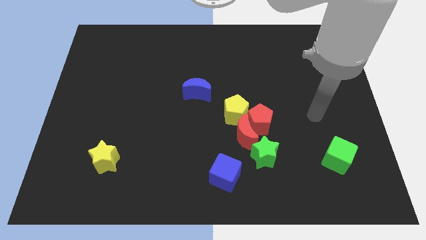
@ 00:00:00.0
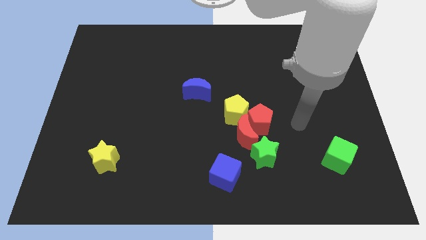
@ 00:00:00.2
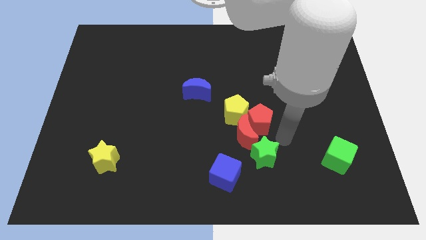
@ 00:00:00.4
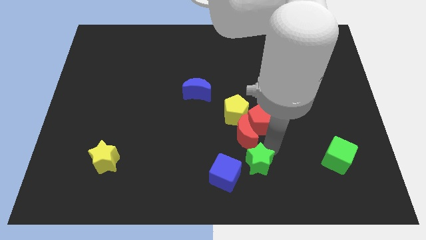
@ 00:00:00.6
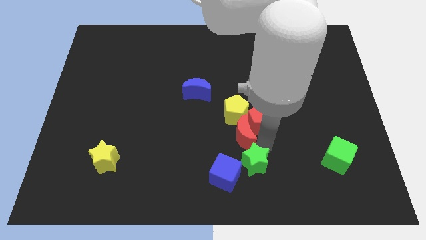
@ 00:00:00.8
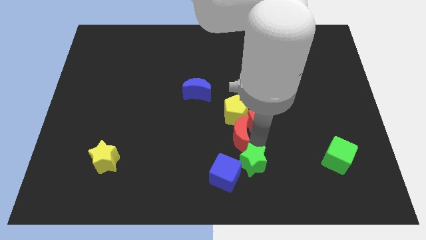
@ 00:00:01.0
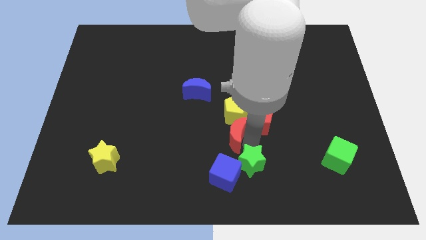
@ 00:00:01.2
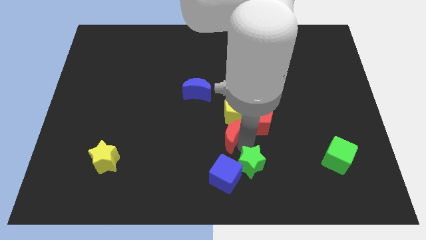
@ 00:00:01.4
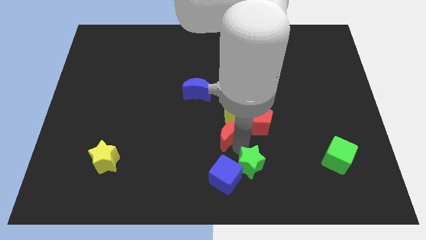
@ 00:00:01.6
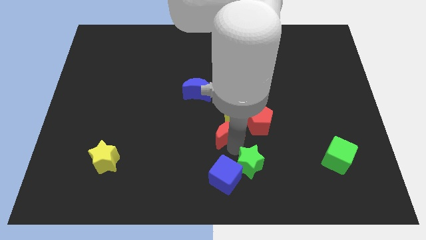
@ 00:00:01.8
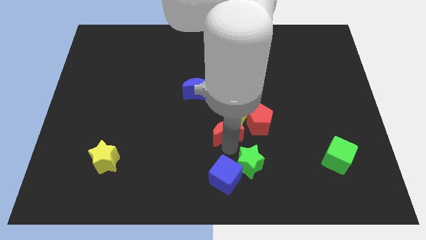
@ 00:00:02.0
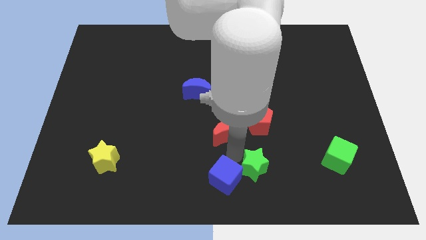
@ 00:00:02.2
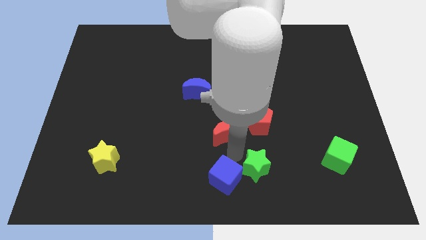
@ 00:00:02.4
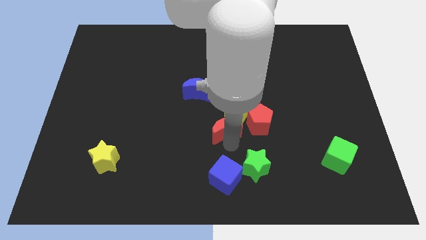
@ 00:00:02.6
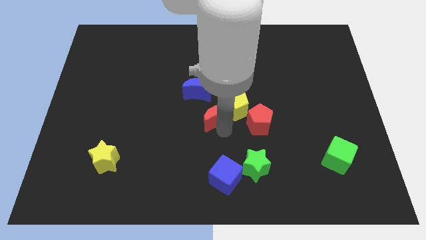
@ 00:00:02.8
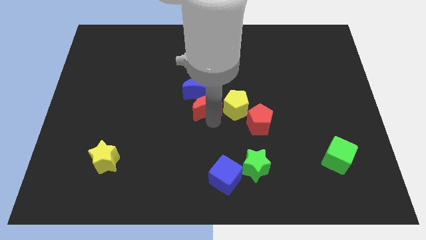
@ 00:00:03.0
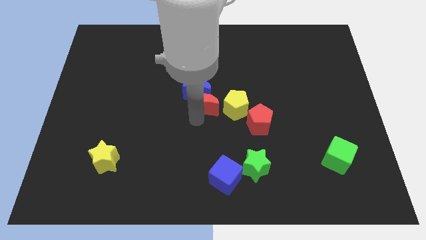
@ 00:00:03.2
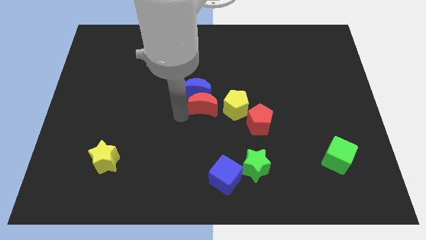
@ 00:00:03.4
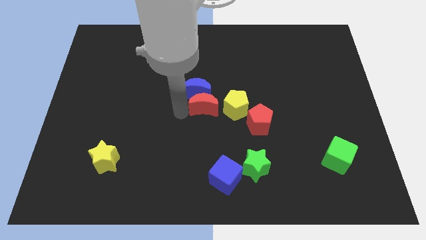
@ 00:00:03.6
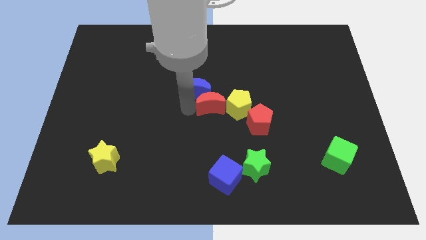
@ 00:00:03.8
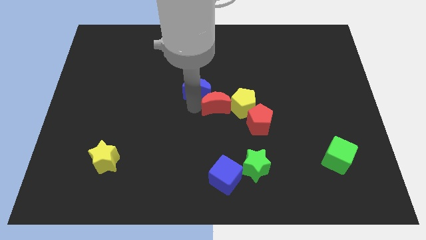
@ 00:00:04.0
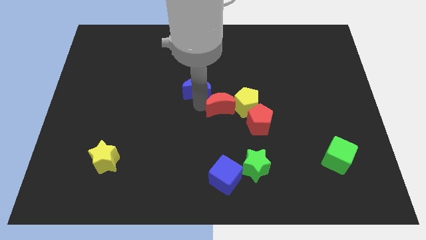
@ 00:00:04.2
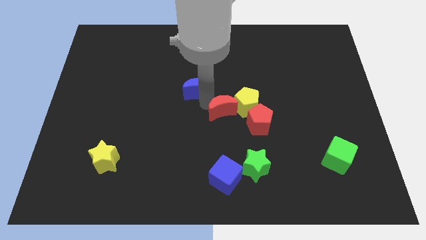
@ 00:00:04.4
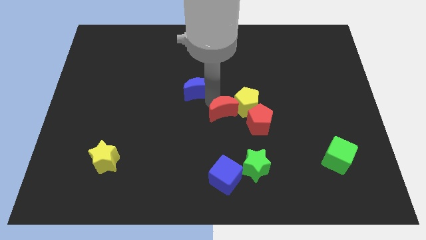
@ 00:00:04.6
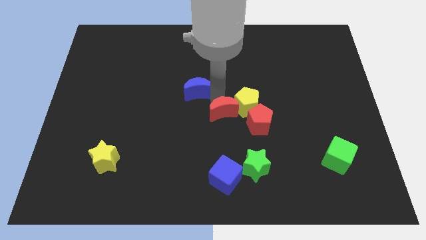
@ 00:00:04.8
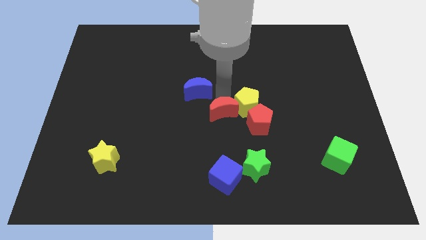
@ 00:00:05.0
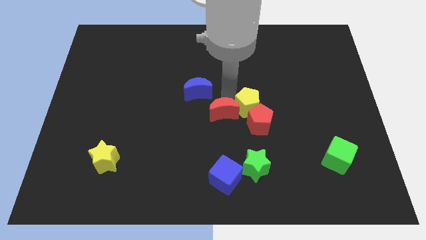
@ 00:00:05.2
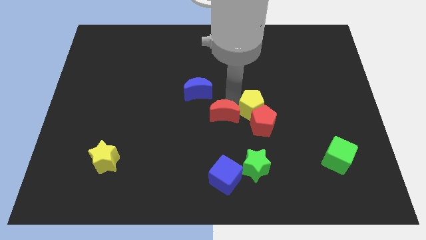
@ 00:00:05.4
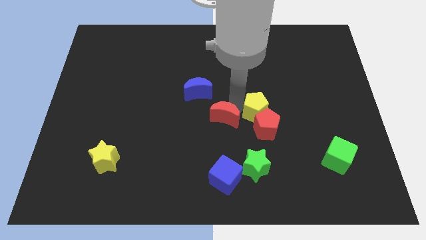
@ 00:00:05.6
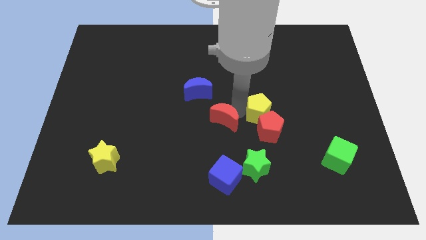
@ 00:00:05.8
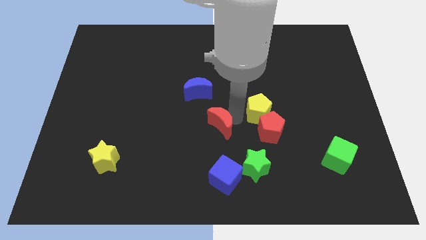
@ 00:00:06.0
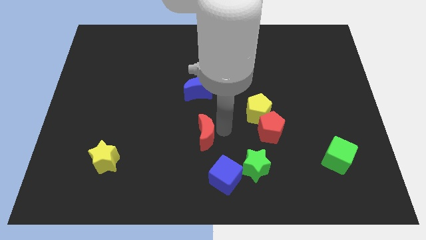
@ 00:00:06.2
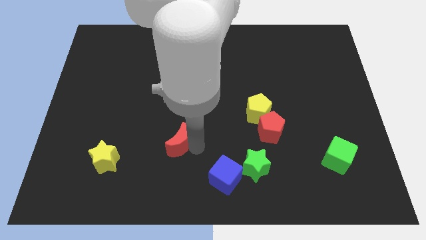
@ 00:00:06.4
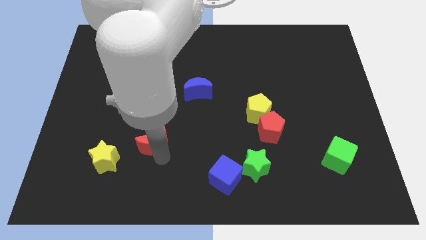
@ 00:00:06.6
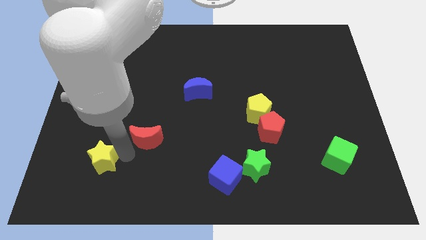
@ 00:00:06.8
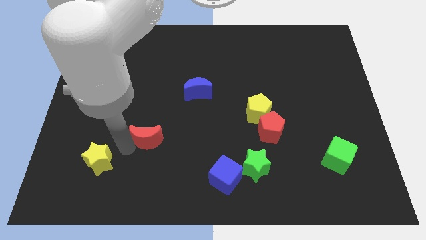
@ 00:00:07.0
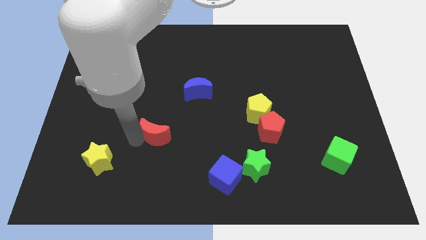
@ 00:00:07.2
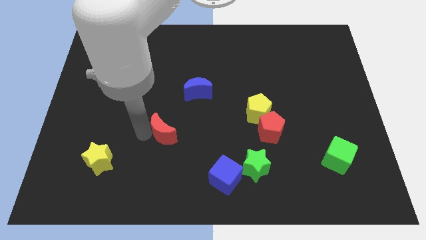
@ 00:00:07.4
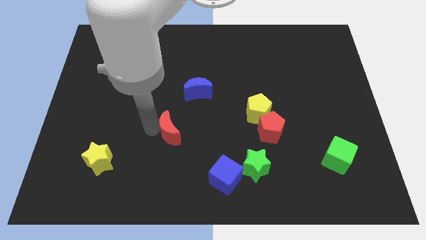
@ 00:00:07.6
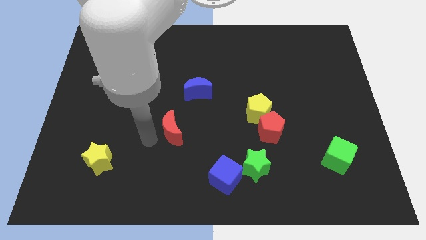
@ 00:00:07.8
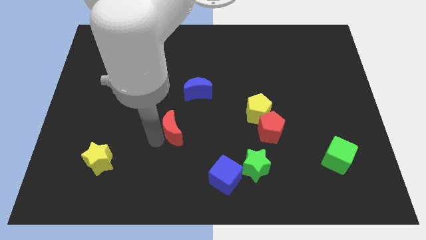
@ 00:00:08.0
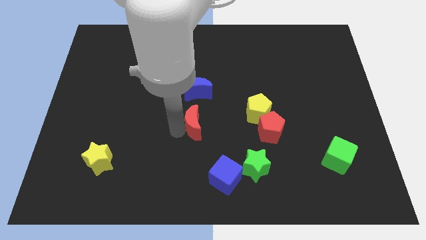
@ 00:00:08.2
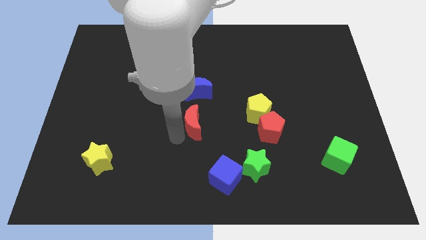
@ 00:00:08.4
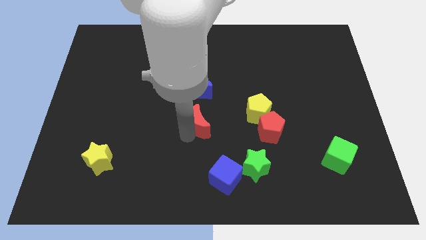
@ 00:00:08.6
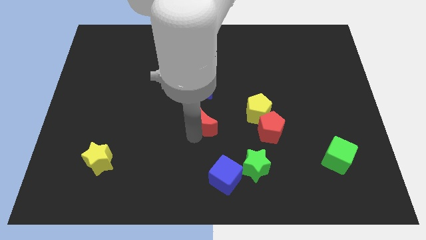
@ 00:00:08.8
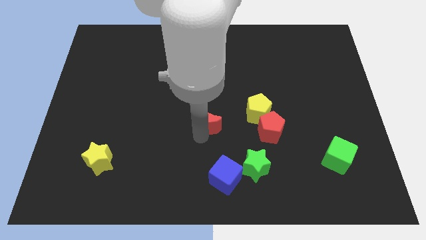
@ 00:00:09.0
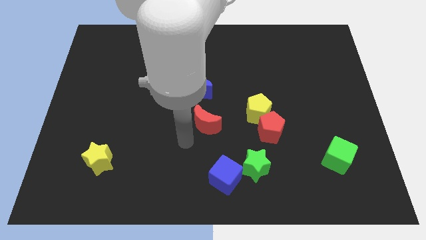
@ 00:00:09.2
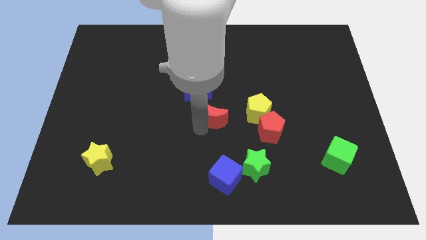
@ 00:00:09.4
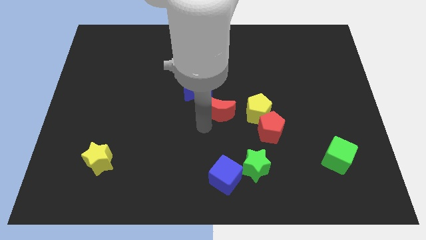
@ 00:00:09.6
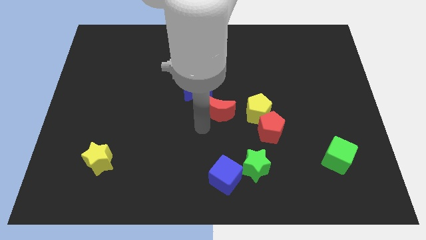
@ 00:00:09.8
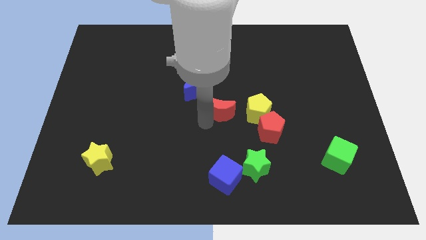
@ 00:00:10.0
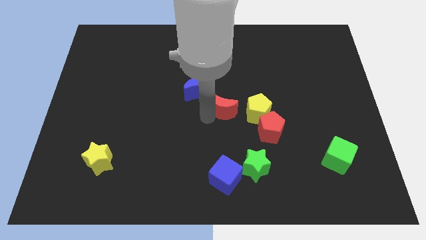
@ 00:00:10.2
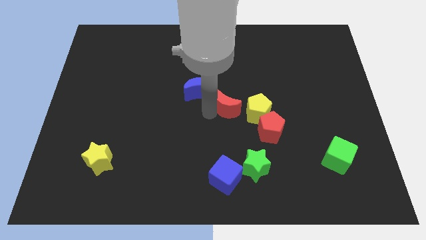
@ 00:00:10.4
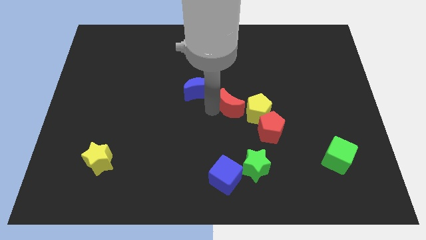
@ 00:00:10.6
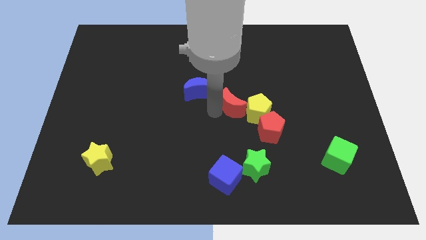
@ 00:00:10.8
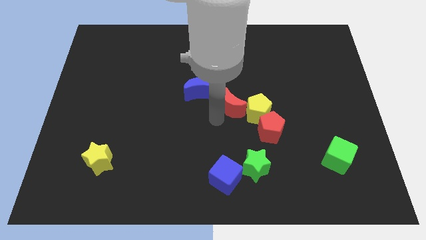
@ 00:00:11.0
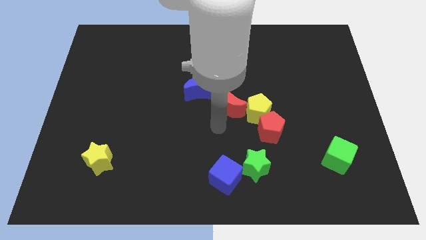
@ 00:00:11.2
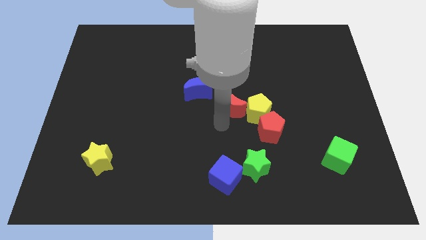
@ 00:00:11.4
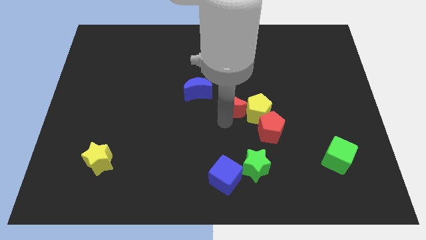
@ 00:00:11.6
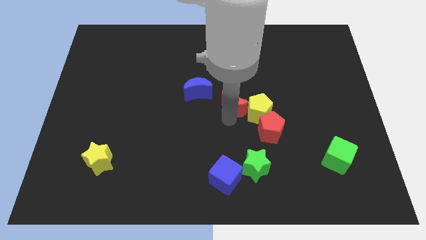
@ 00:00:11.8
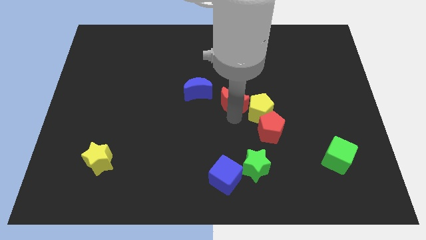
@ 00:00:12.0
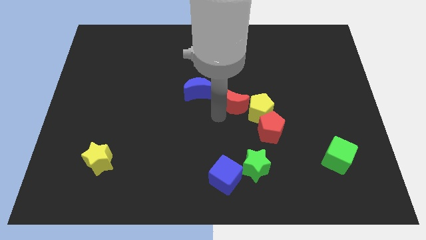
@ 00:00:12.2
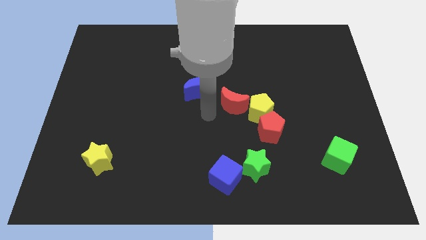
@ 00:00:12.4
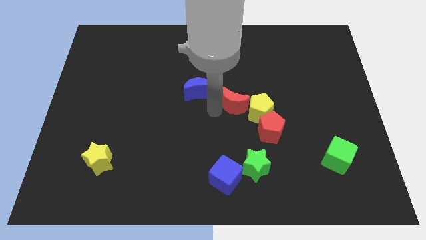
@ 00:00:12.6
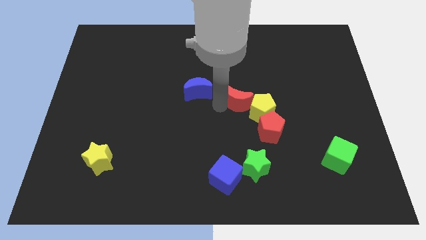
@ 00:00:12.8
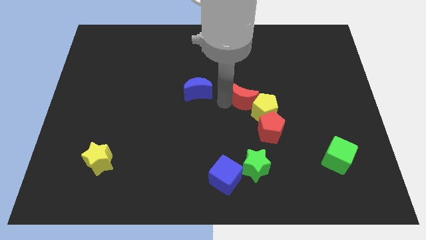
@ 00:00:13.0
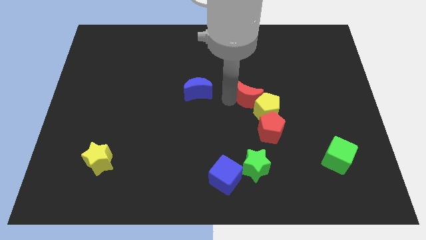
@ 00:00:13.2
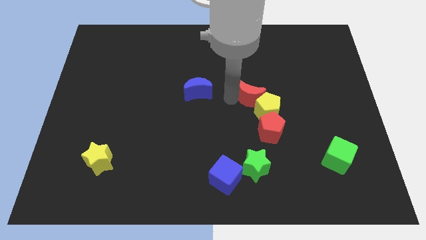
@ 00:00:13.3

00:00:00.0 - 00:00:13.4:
slightly push the red moon diagonally up and right

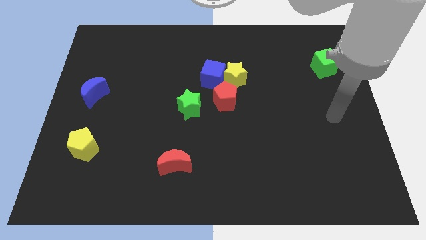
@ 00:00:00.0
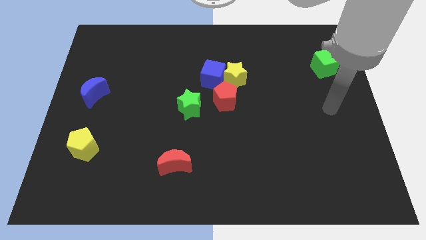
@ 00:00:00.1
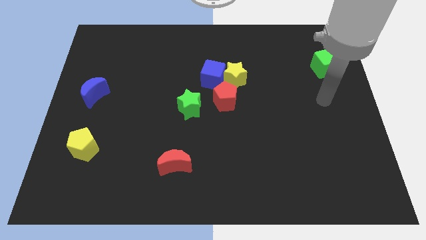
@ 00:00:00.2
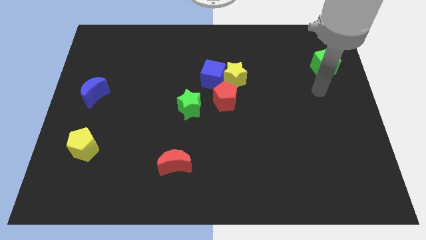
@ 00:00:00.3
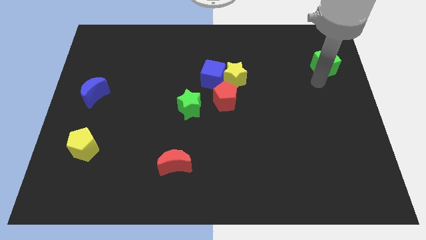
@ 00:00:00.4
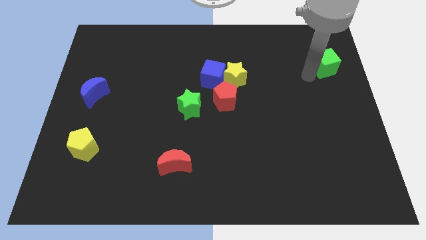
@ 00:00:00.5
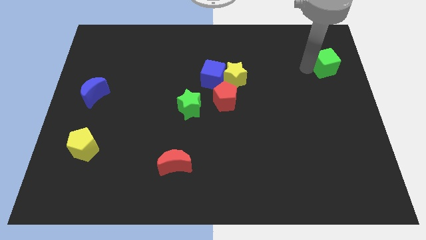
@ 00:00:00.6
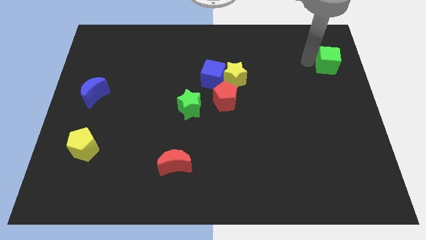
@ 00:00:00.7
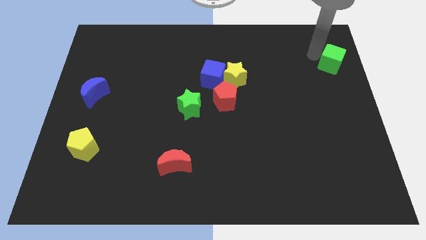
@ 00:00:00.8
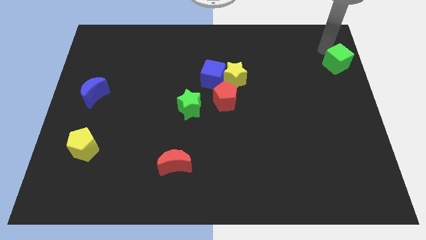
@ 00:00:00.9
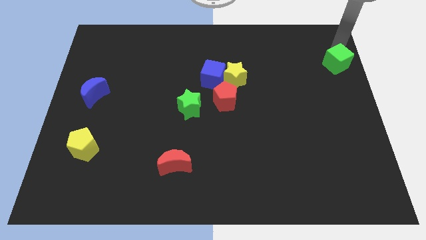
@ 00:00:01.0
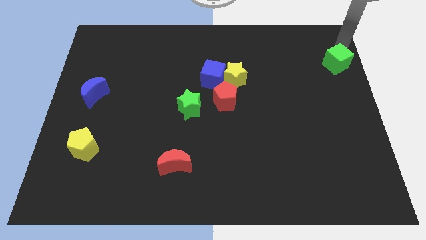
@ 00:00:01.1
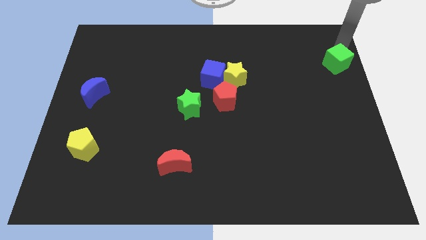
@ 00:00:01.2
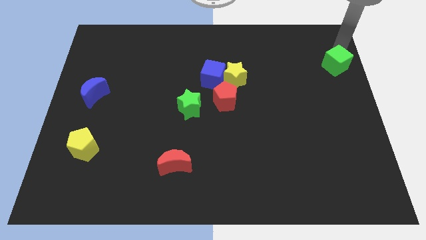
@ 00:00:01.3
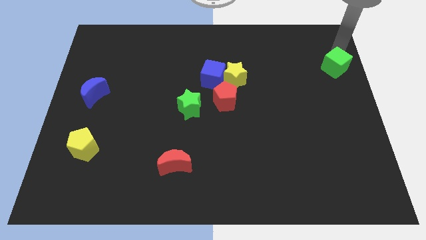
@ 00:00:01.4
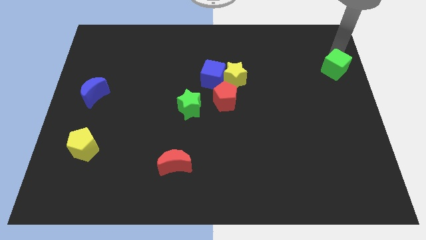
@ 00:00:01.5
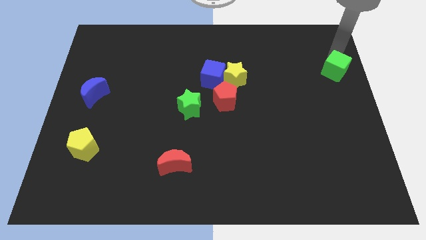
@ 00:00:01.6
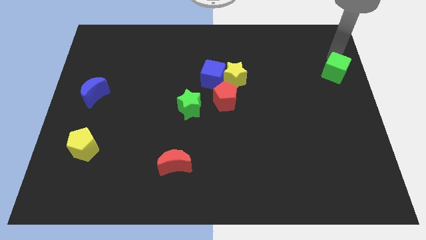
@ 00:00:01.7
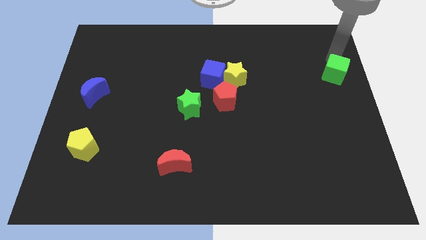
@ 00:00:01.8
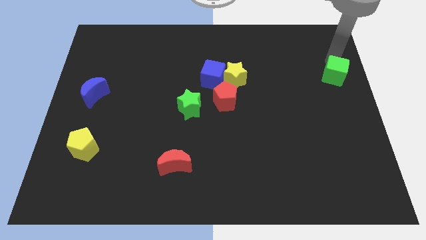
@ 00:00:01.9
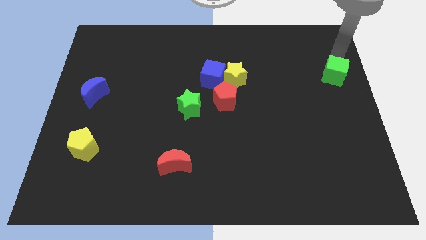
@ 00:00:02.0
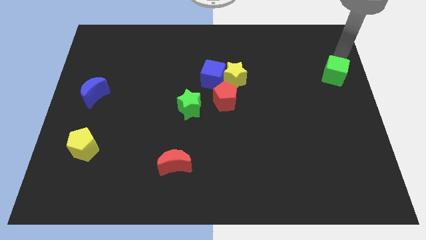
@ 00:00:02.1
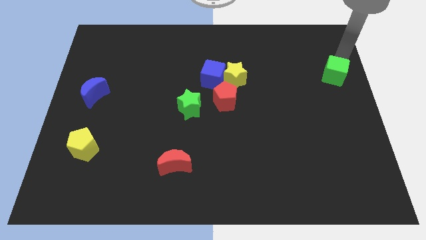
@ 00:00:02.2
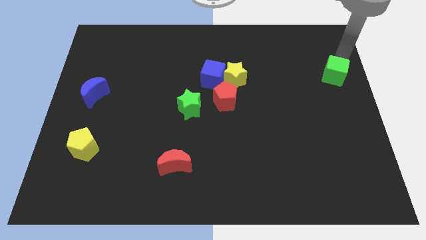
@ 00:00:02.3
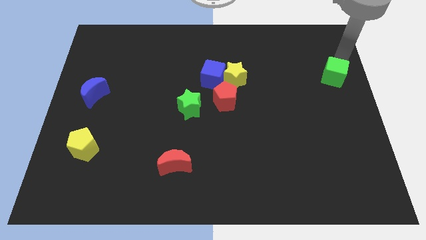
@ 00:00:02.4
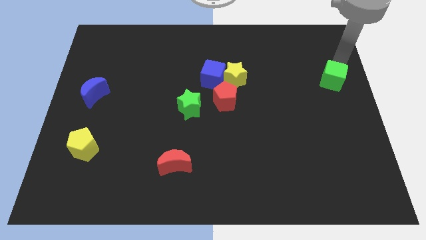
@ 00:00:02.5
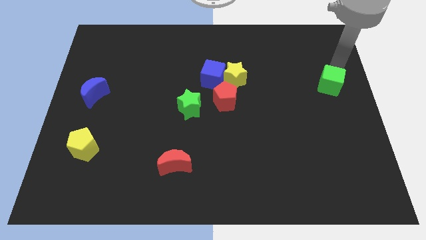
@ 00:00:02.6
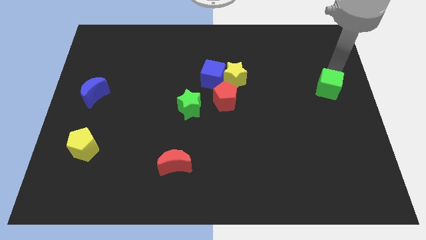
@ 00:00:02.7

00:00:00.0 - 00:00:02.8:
push the green cube a little bit downwards
